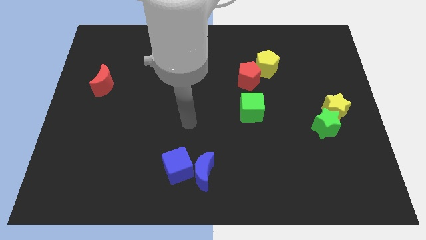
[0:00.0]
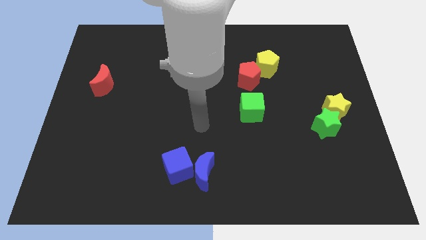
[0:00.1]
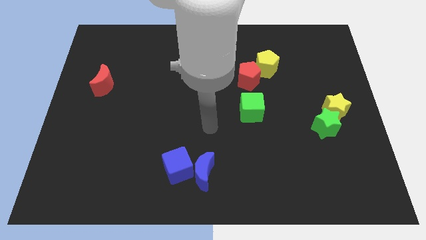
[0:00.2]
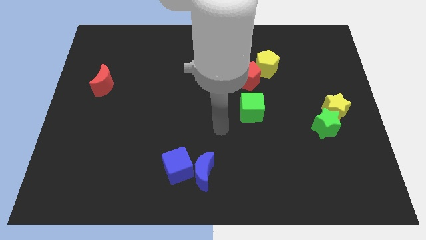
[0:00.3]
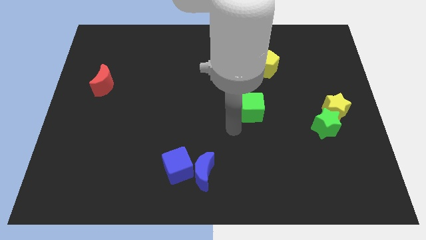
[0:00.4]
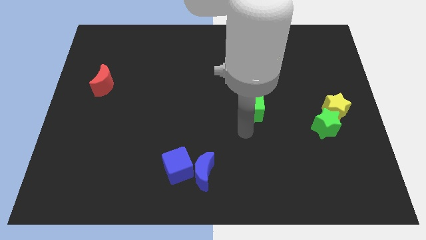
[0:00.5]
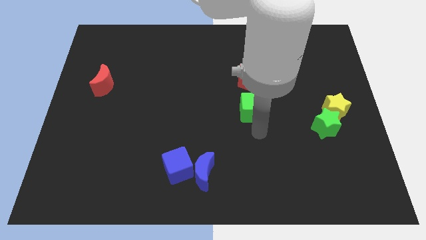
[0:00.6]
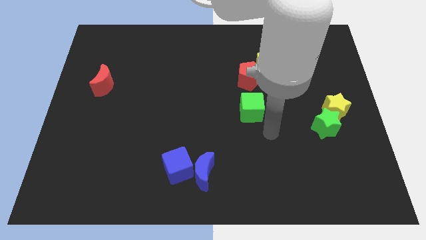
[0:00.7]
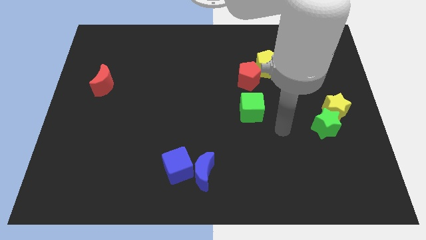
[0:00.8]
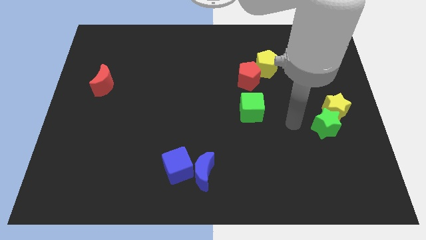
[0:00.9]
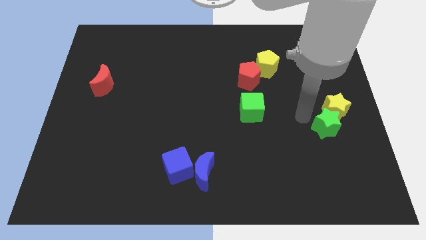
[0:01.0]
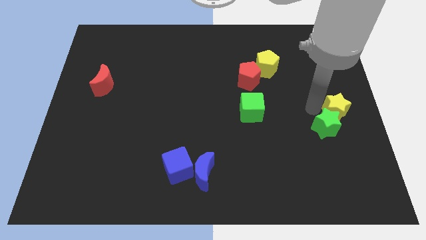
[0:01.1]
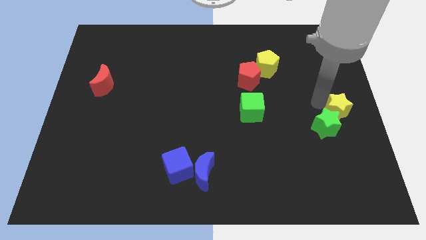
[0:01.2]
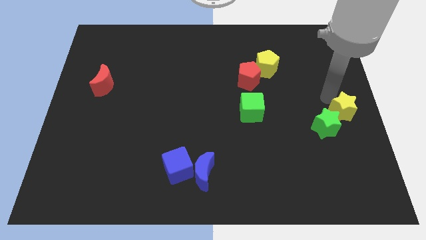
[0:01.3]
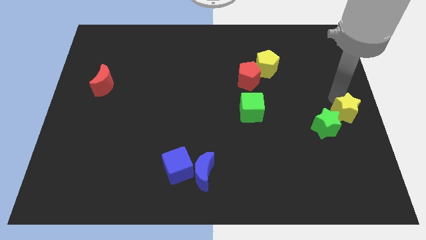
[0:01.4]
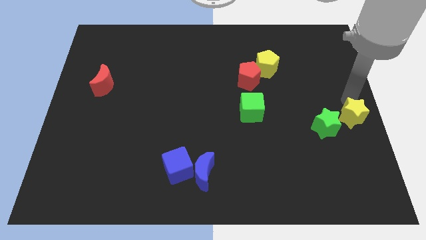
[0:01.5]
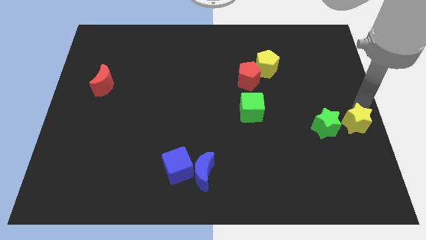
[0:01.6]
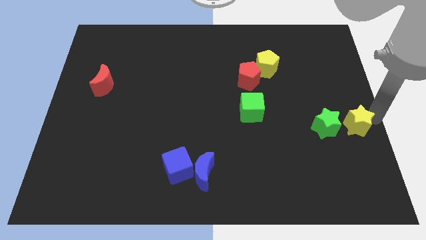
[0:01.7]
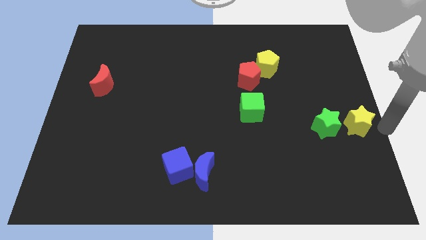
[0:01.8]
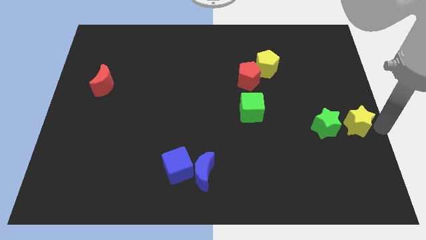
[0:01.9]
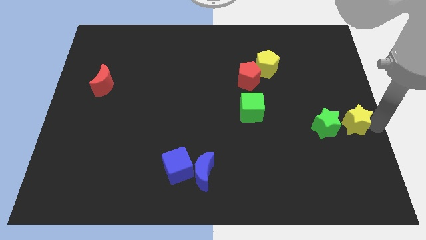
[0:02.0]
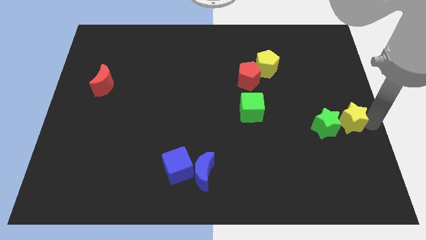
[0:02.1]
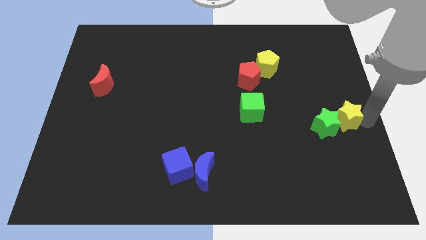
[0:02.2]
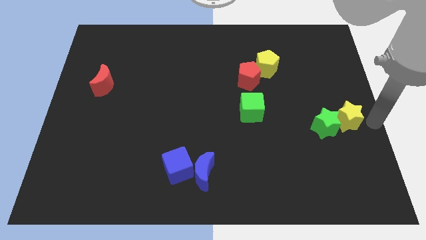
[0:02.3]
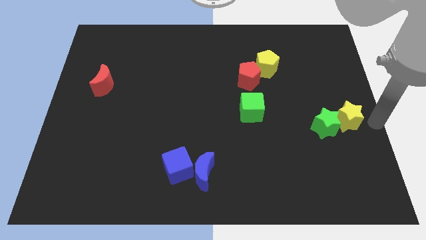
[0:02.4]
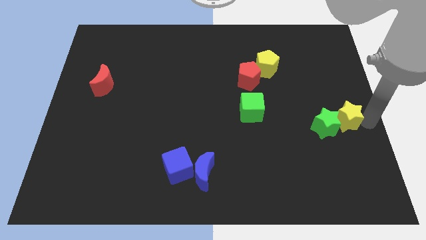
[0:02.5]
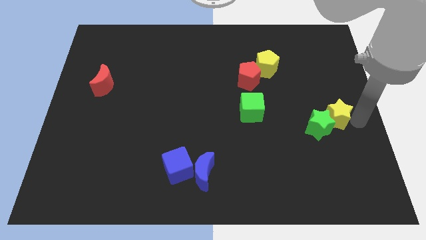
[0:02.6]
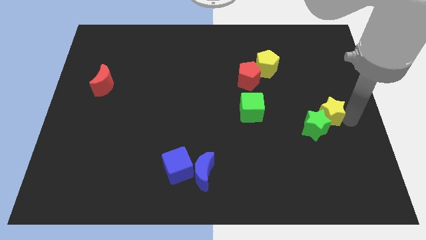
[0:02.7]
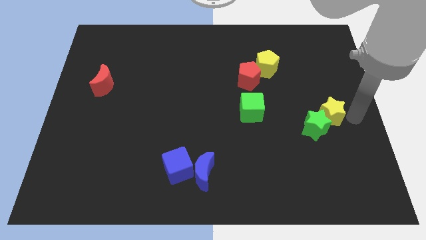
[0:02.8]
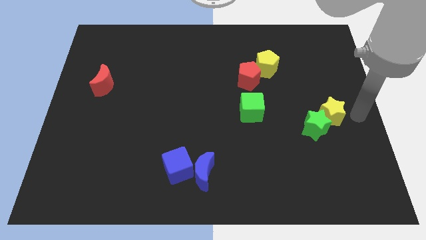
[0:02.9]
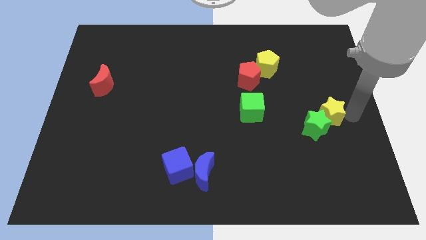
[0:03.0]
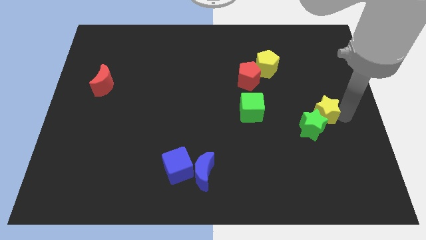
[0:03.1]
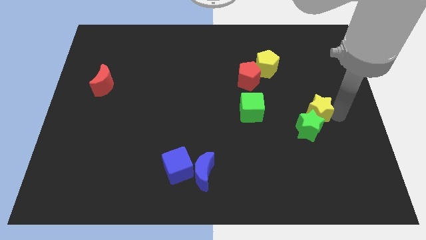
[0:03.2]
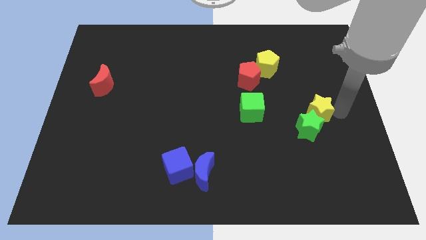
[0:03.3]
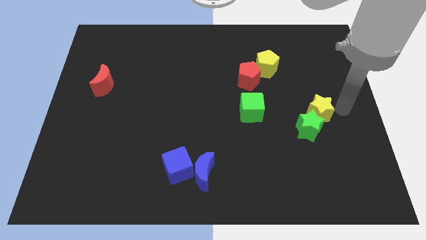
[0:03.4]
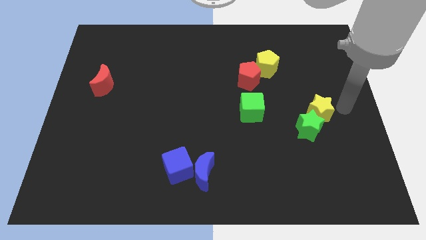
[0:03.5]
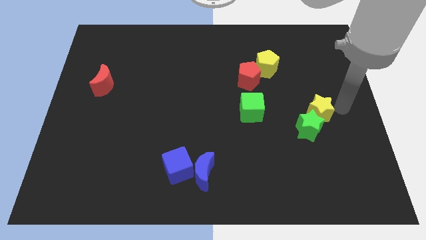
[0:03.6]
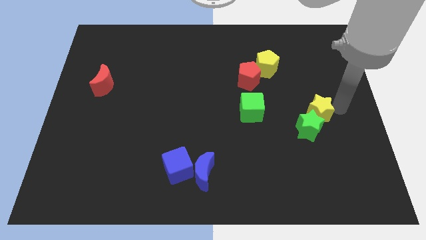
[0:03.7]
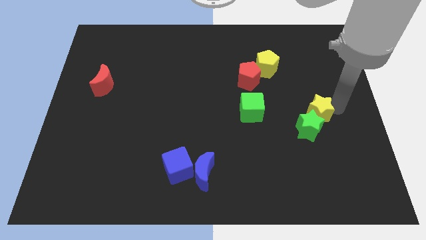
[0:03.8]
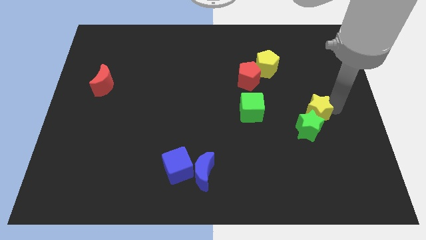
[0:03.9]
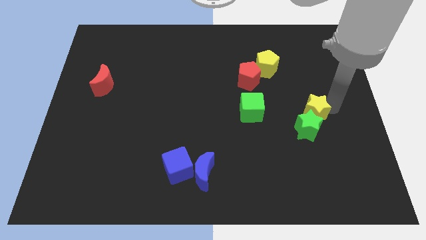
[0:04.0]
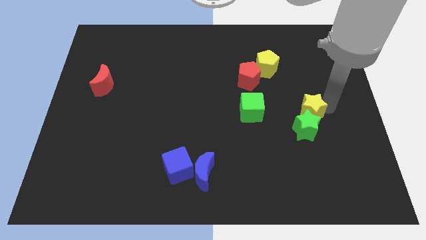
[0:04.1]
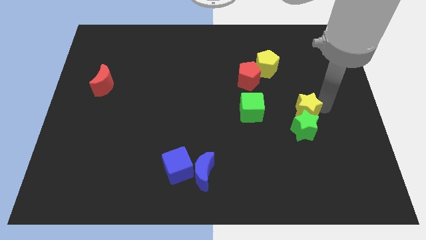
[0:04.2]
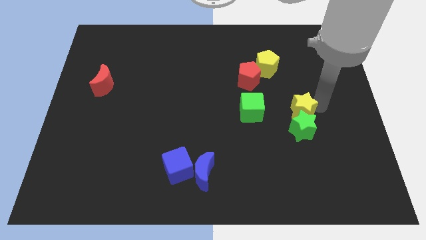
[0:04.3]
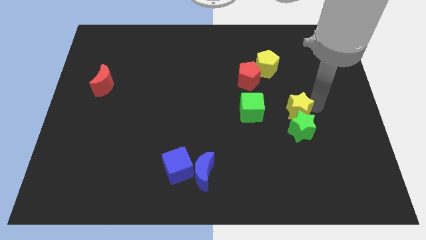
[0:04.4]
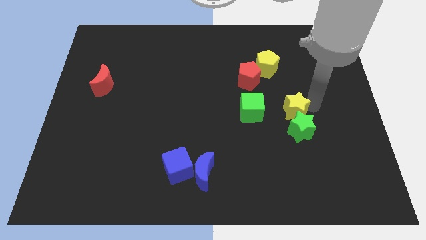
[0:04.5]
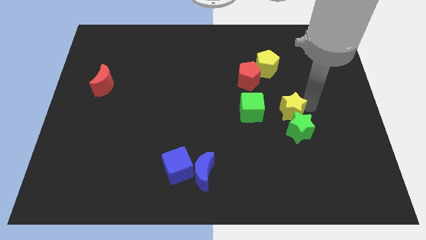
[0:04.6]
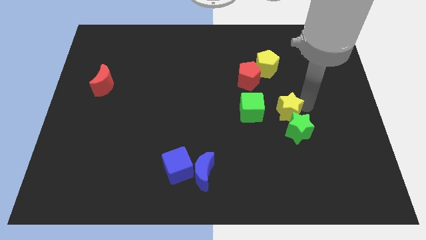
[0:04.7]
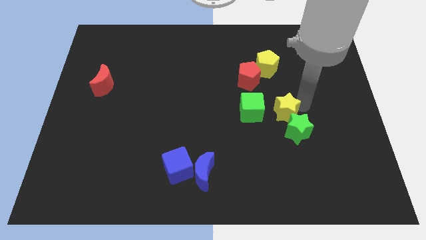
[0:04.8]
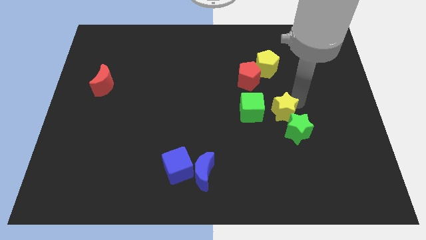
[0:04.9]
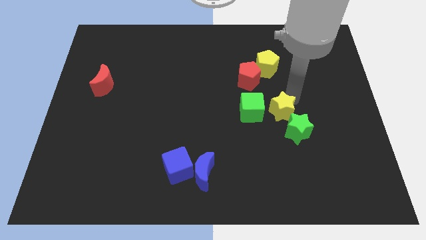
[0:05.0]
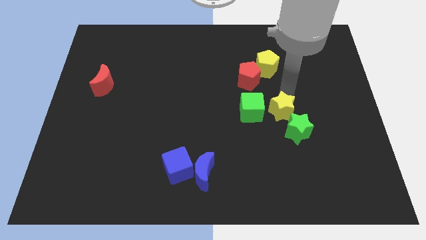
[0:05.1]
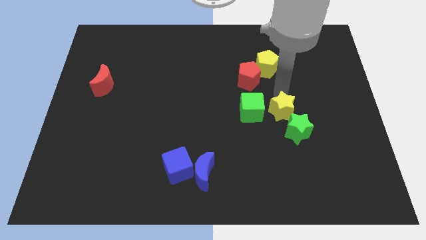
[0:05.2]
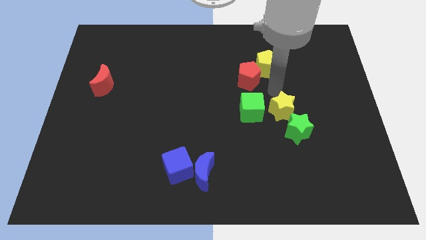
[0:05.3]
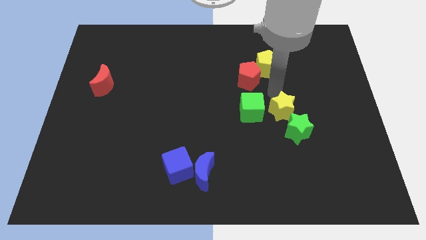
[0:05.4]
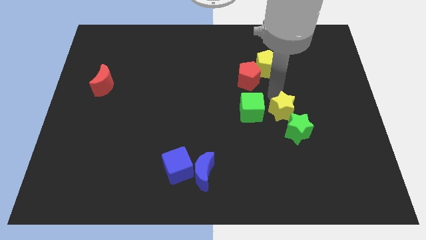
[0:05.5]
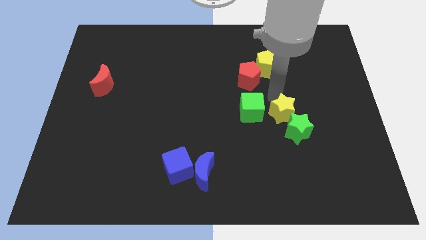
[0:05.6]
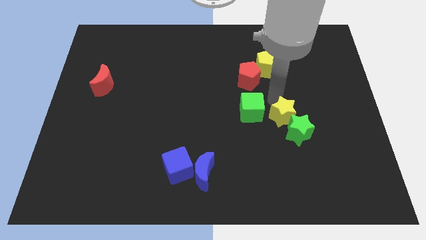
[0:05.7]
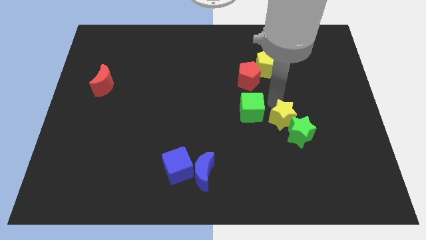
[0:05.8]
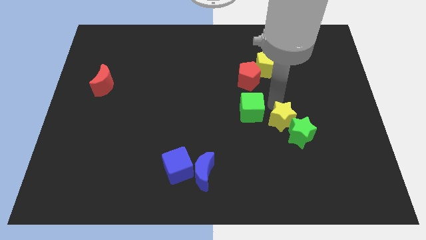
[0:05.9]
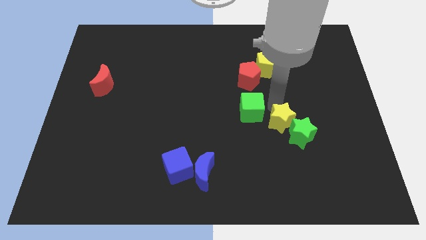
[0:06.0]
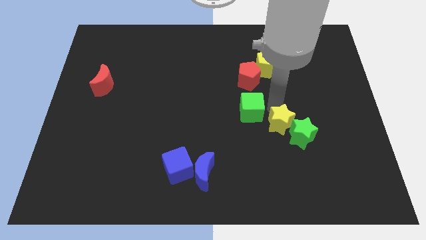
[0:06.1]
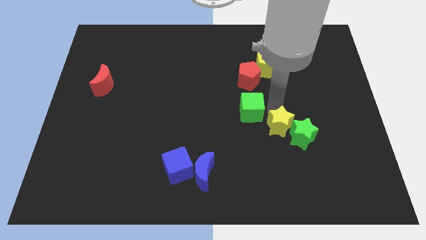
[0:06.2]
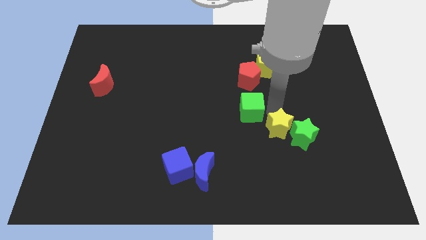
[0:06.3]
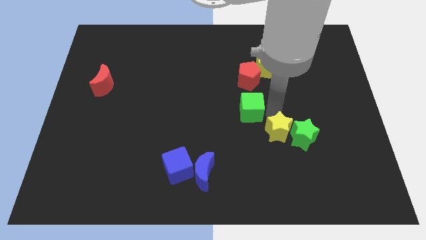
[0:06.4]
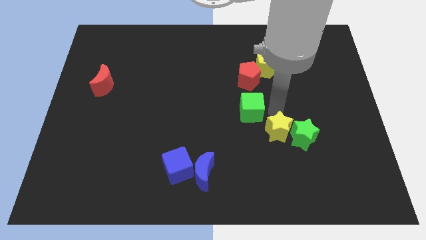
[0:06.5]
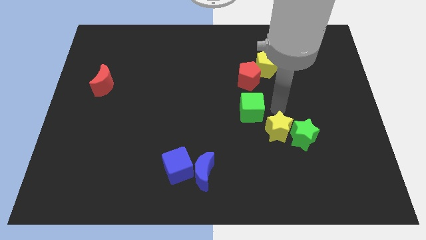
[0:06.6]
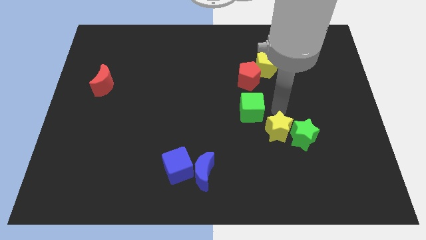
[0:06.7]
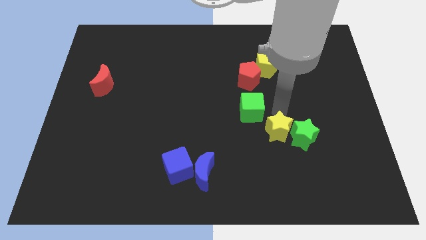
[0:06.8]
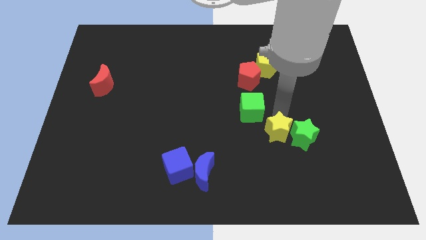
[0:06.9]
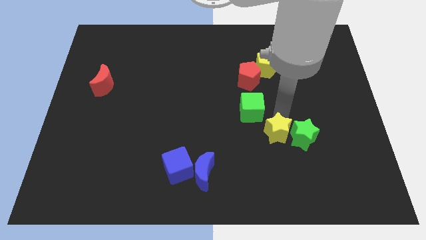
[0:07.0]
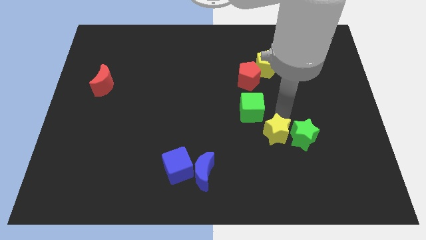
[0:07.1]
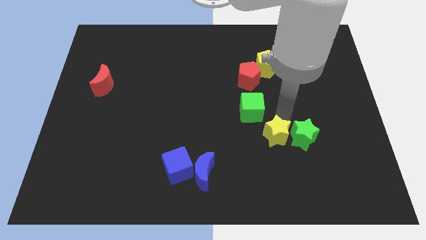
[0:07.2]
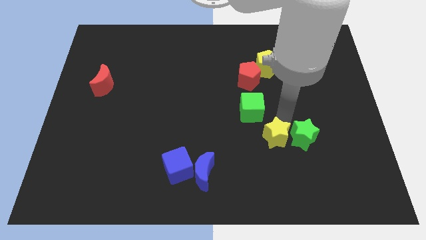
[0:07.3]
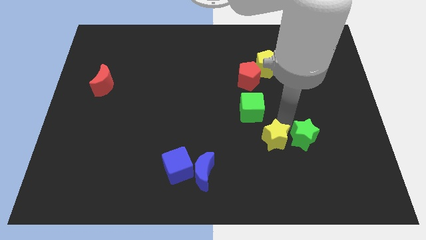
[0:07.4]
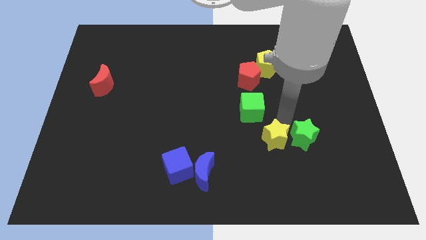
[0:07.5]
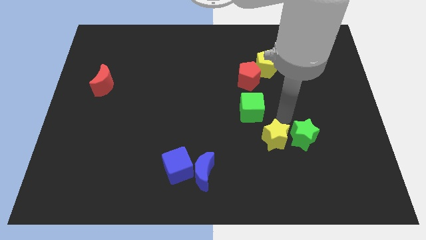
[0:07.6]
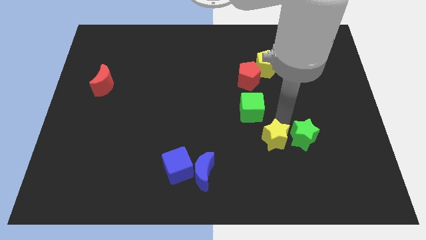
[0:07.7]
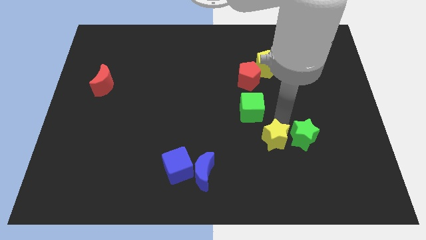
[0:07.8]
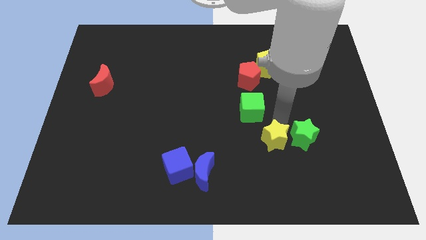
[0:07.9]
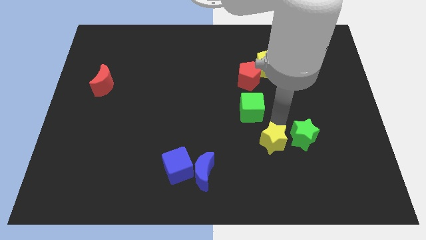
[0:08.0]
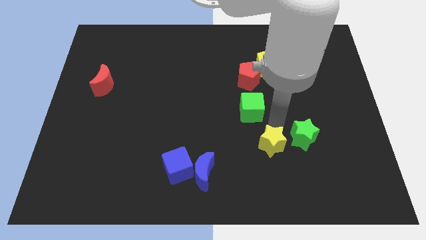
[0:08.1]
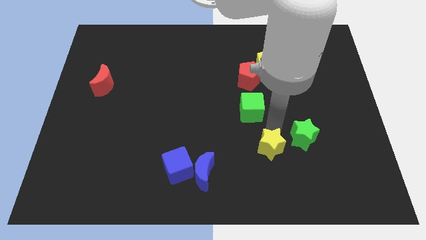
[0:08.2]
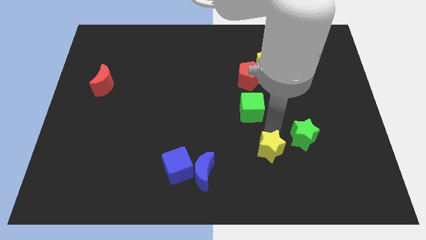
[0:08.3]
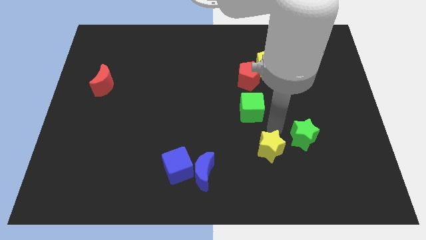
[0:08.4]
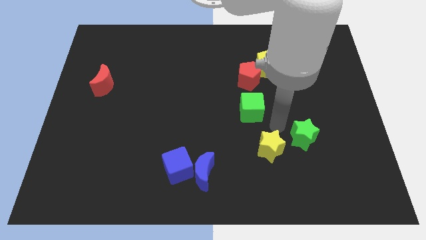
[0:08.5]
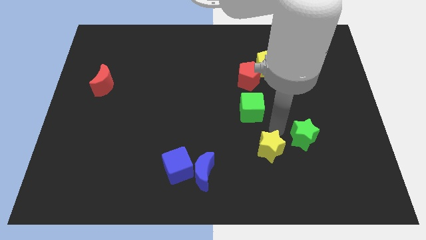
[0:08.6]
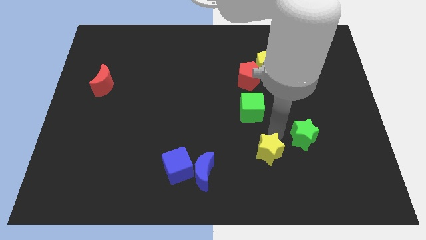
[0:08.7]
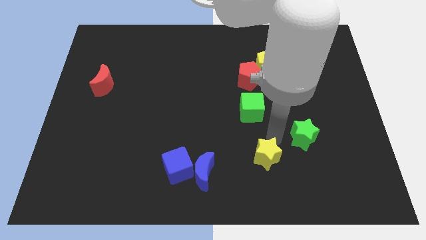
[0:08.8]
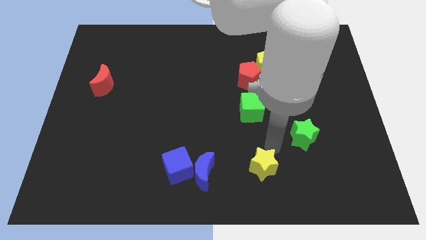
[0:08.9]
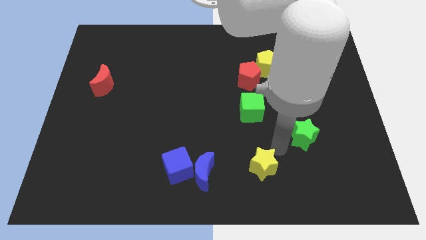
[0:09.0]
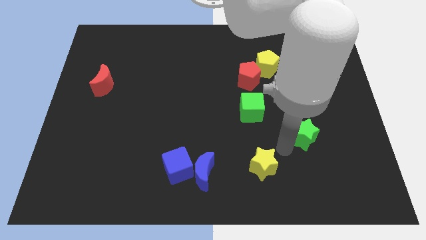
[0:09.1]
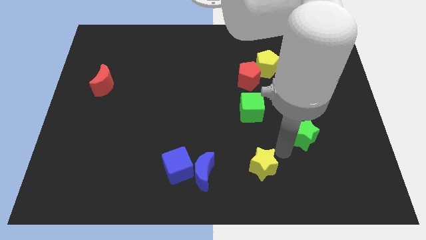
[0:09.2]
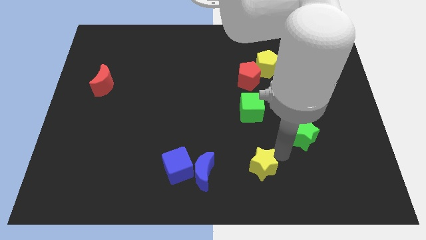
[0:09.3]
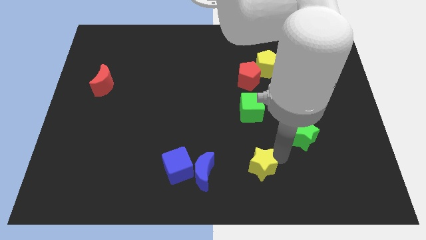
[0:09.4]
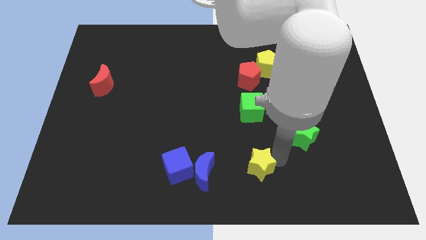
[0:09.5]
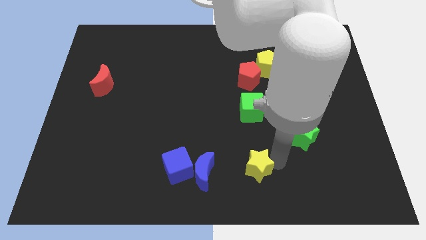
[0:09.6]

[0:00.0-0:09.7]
push the yellow star to the bottom
